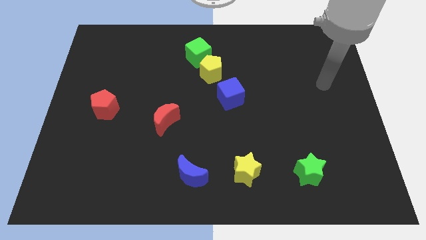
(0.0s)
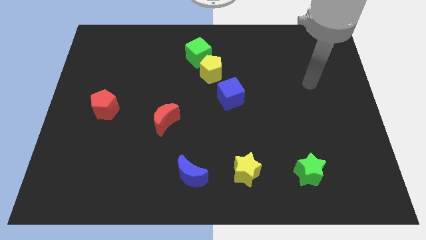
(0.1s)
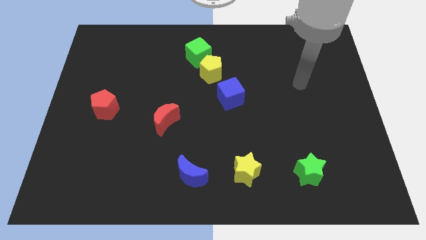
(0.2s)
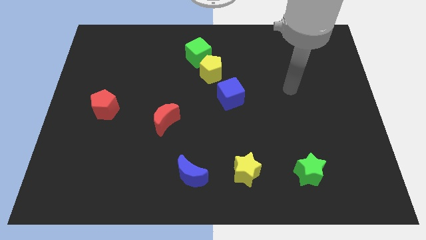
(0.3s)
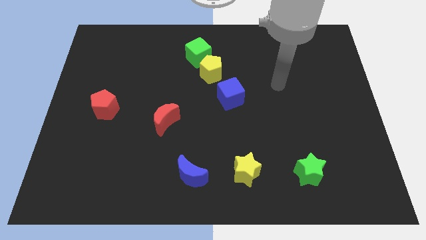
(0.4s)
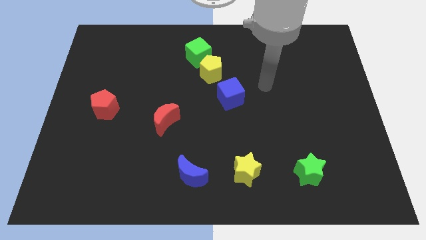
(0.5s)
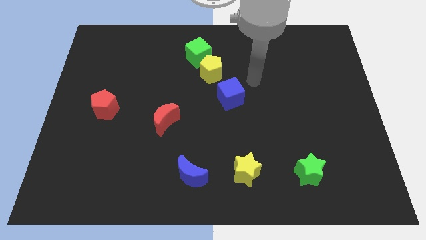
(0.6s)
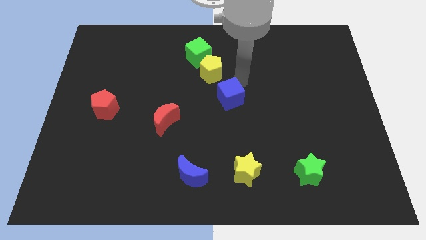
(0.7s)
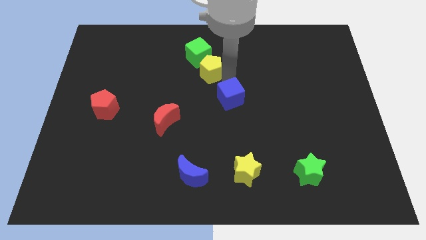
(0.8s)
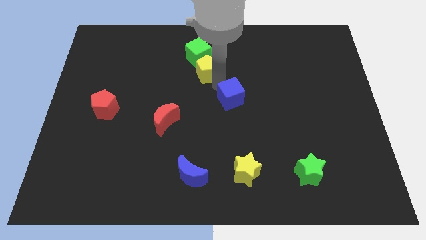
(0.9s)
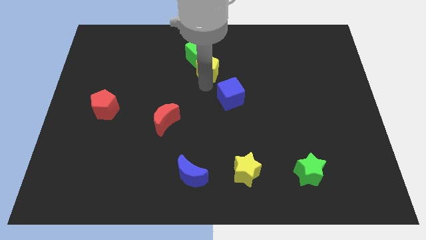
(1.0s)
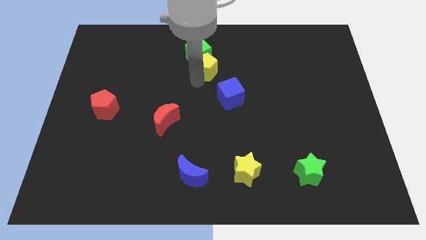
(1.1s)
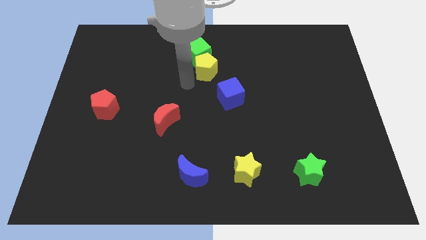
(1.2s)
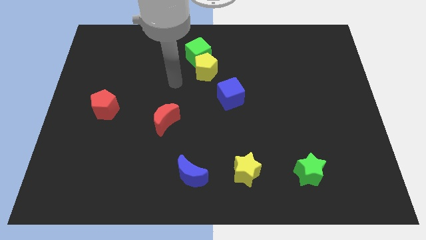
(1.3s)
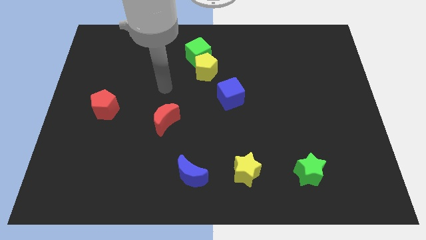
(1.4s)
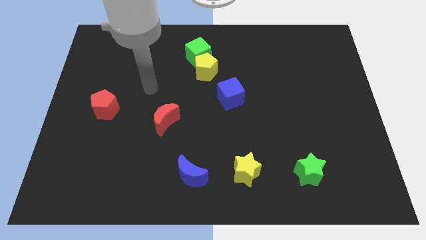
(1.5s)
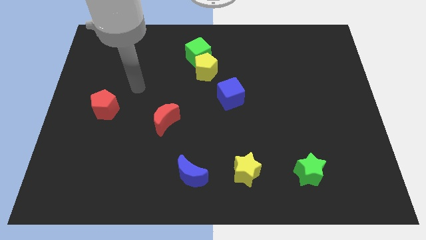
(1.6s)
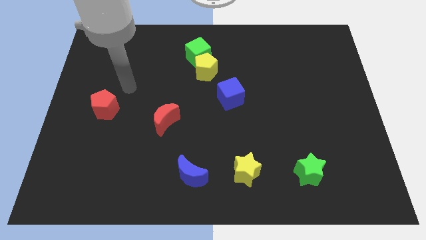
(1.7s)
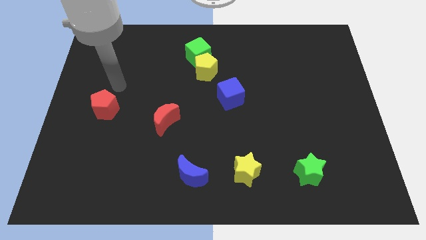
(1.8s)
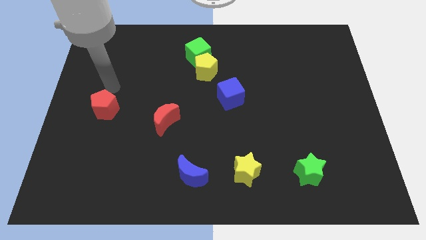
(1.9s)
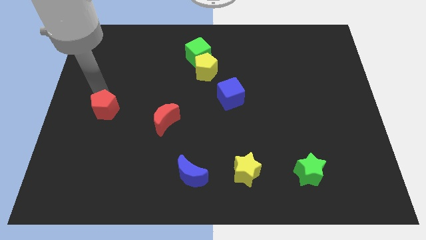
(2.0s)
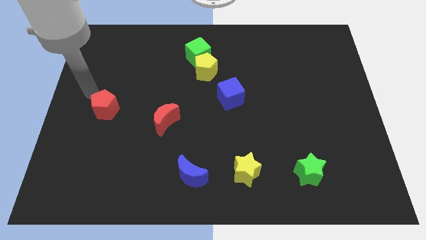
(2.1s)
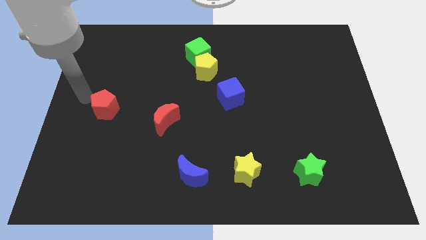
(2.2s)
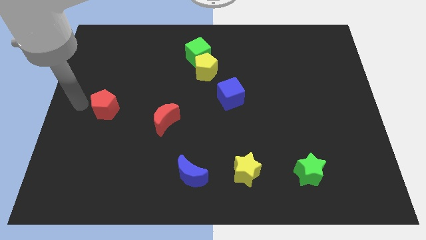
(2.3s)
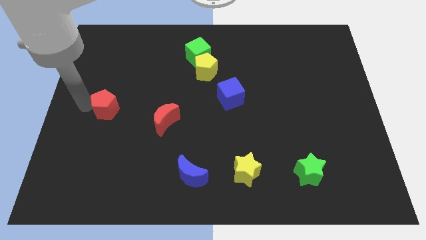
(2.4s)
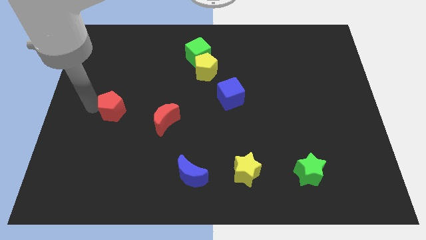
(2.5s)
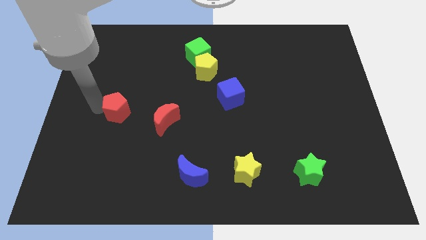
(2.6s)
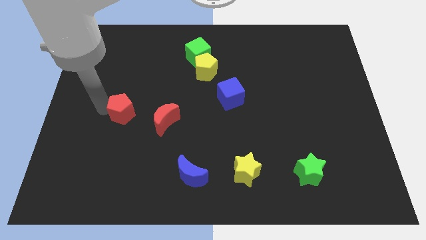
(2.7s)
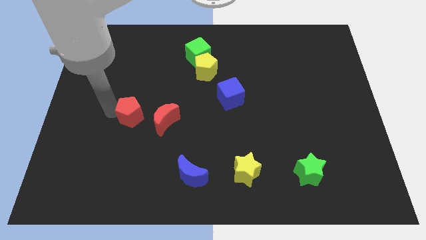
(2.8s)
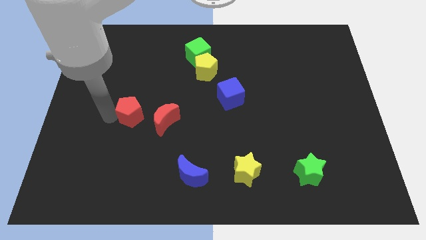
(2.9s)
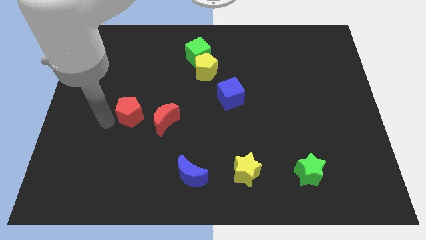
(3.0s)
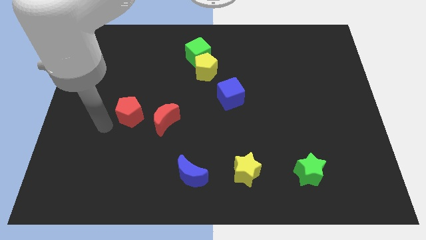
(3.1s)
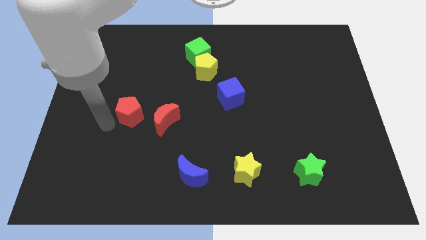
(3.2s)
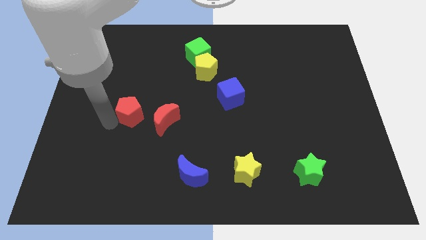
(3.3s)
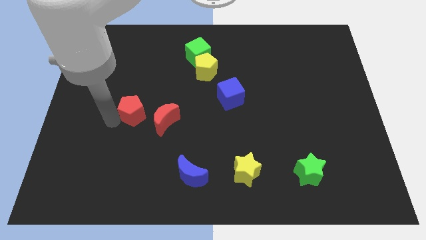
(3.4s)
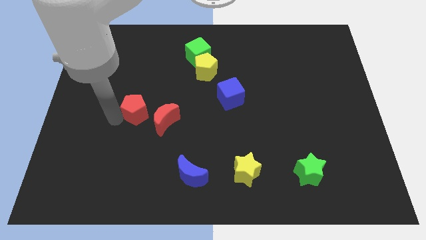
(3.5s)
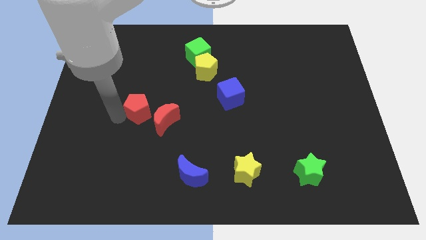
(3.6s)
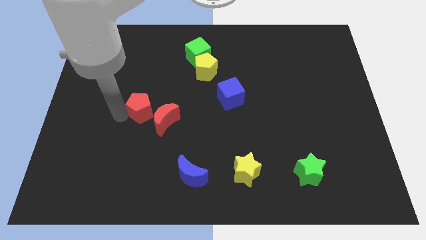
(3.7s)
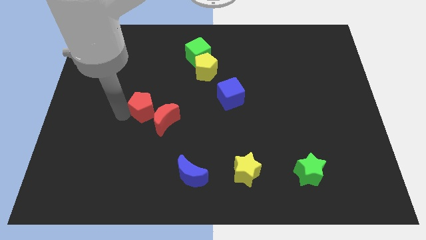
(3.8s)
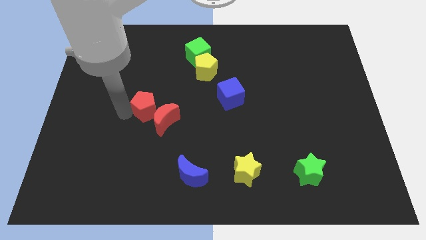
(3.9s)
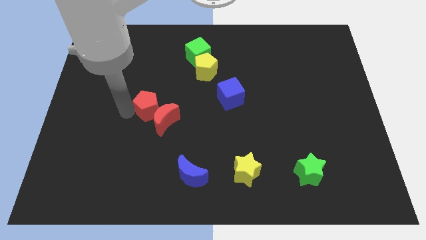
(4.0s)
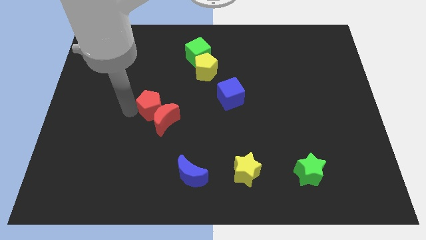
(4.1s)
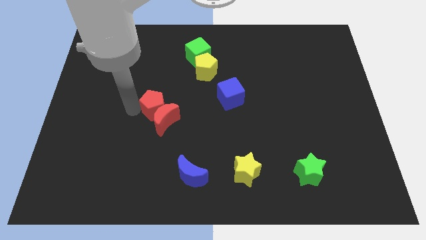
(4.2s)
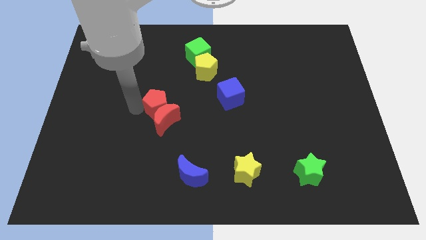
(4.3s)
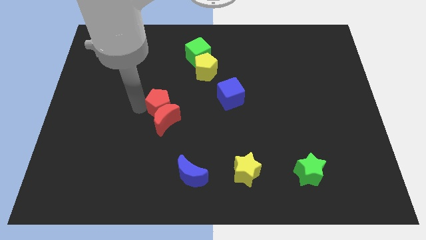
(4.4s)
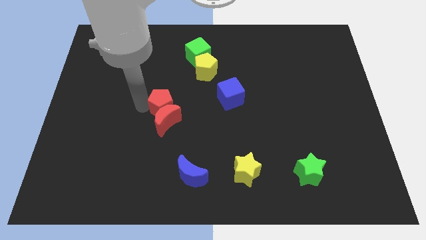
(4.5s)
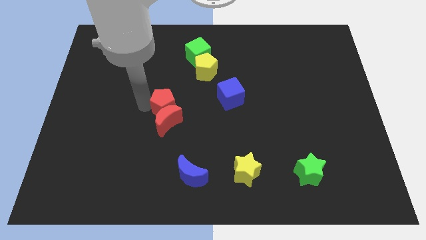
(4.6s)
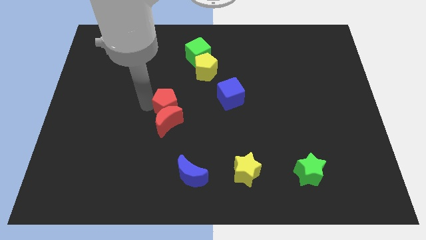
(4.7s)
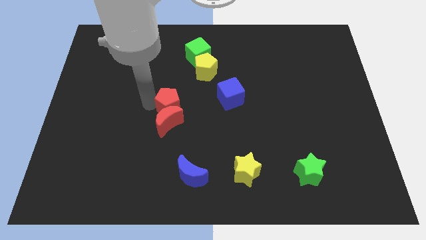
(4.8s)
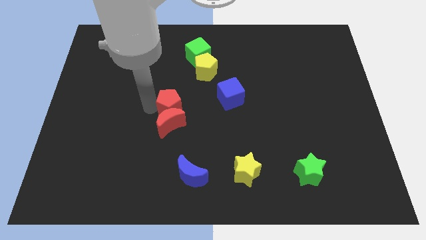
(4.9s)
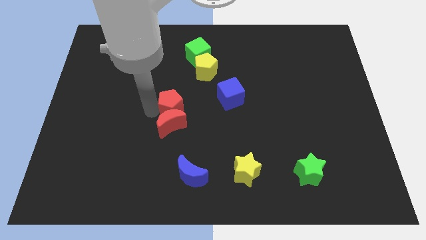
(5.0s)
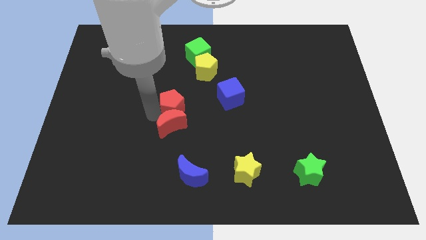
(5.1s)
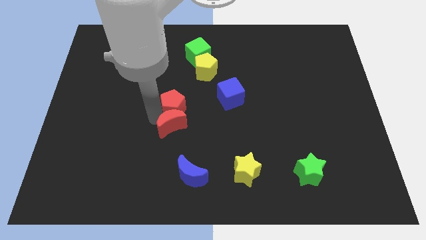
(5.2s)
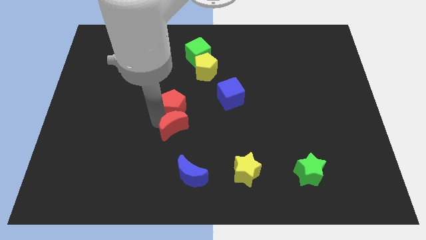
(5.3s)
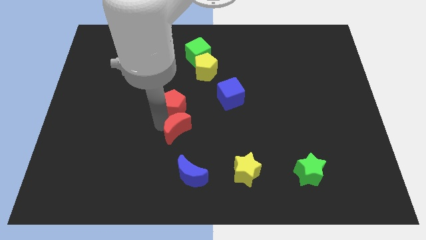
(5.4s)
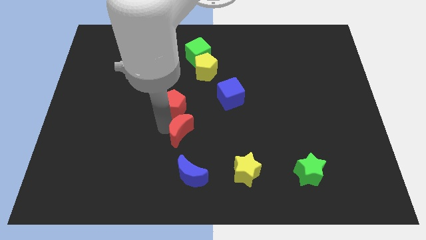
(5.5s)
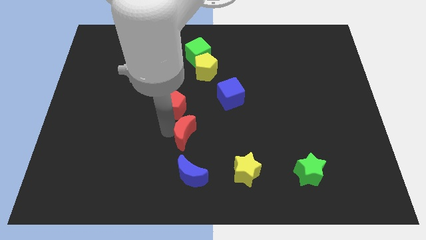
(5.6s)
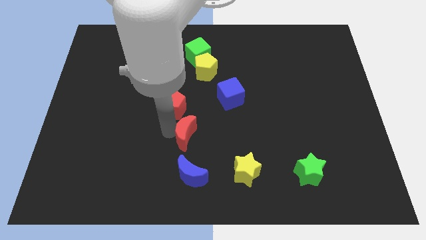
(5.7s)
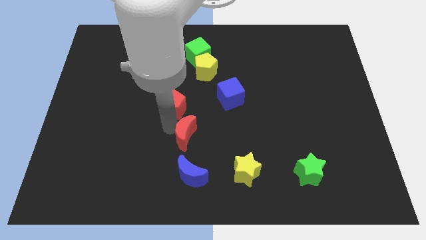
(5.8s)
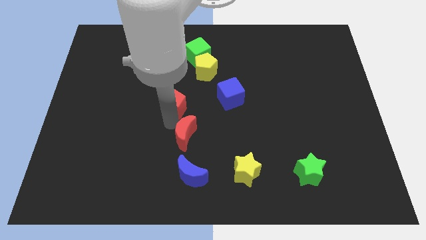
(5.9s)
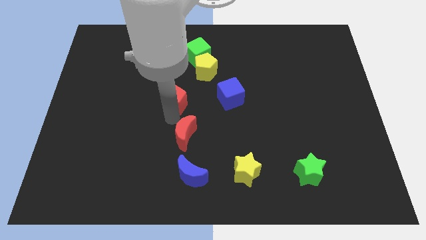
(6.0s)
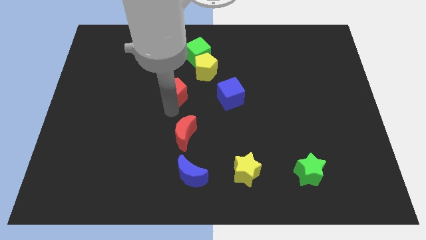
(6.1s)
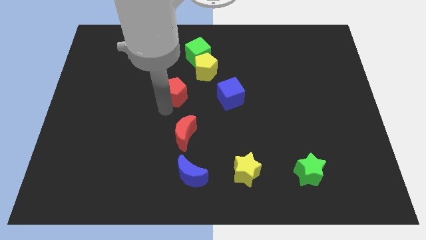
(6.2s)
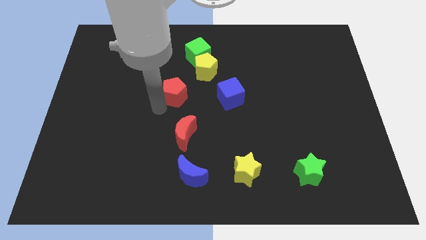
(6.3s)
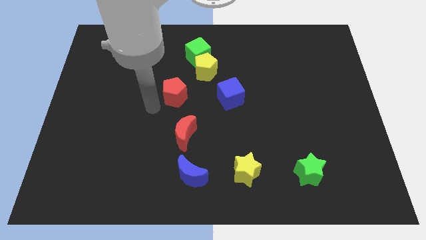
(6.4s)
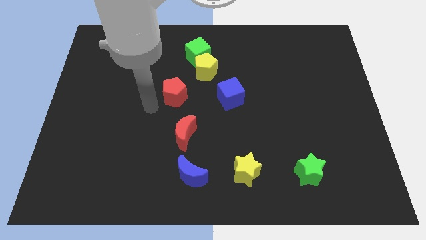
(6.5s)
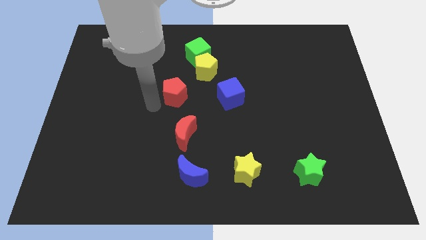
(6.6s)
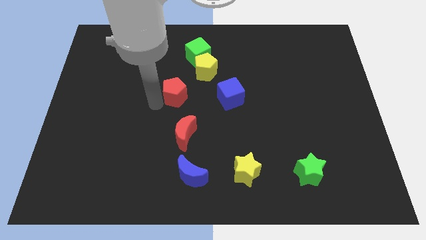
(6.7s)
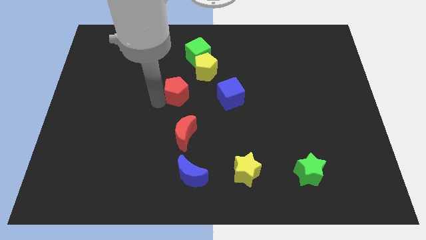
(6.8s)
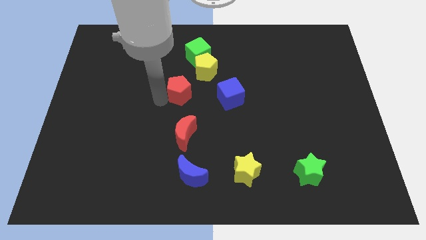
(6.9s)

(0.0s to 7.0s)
put the red pentagon below the green cube
